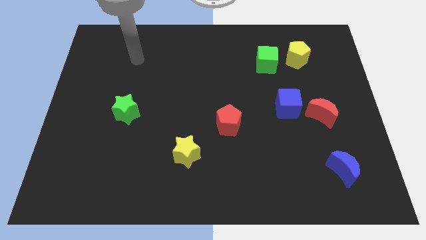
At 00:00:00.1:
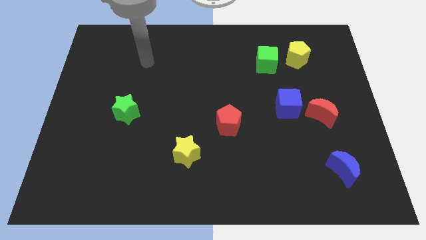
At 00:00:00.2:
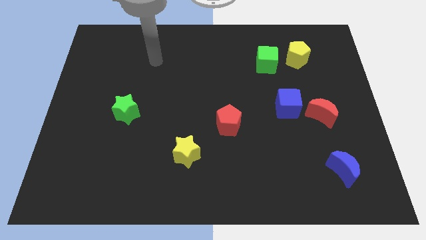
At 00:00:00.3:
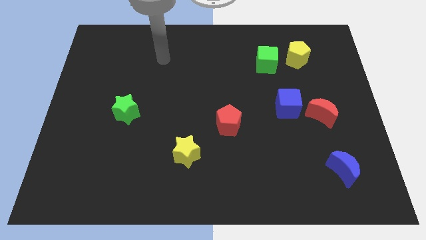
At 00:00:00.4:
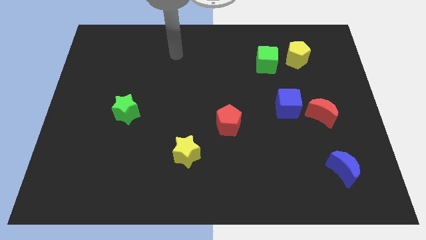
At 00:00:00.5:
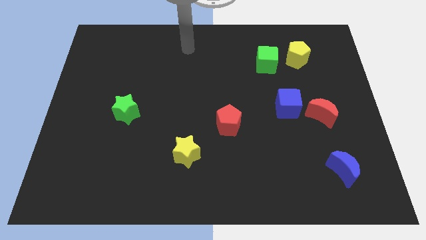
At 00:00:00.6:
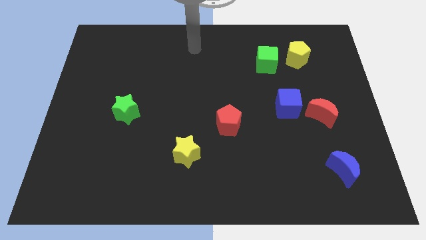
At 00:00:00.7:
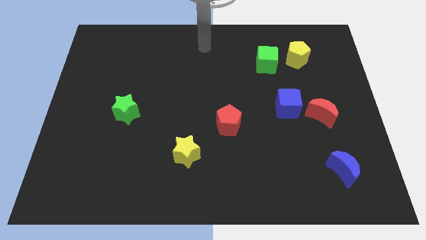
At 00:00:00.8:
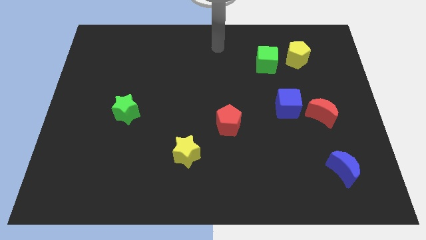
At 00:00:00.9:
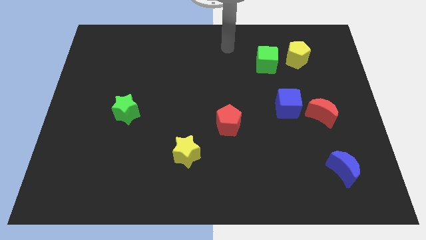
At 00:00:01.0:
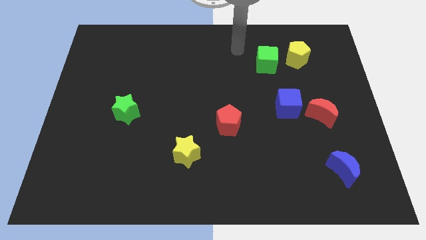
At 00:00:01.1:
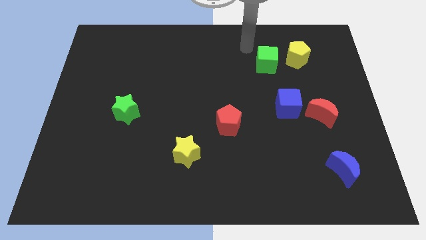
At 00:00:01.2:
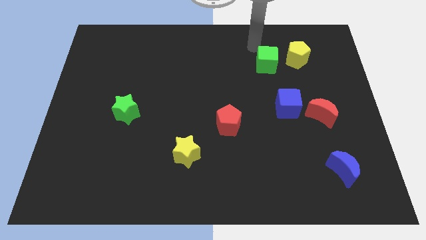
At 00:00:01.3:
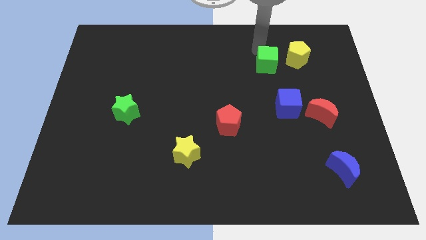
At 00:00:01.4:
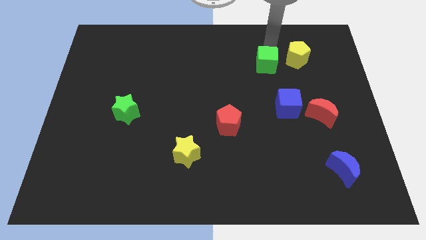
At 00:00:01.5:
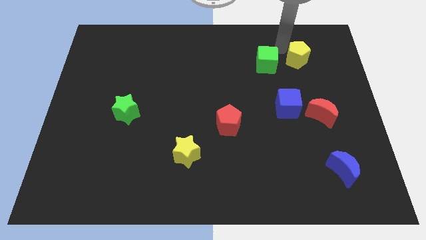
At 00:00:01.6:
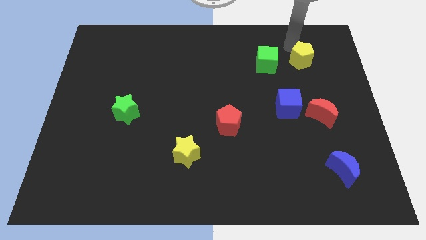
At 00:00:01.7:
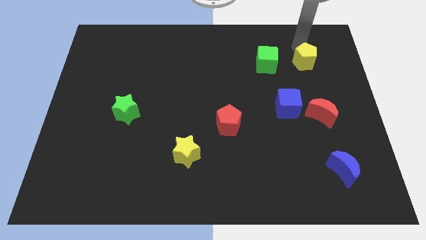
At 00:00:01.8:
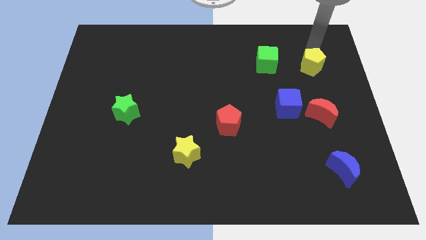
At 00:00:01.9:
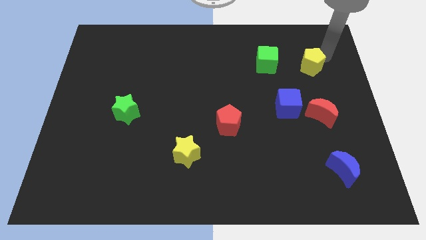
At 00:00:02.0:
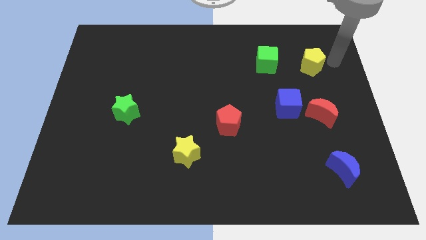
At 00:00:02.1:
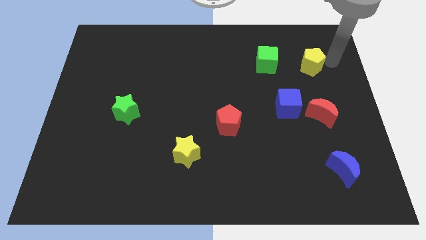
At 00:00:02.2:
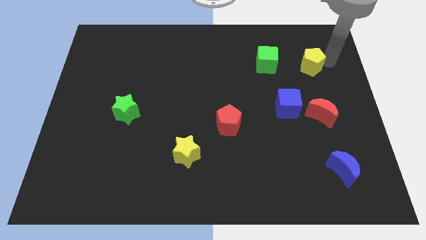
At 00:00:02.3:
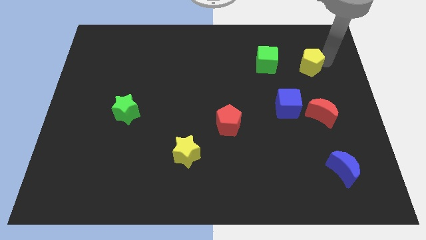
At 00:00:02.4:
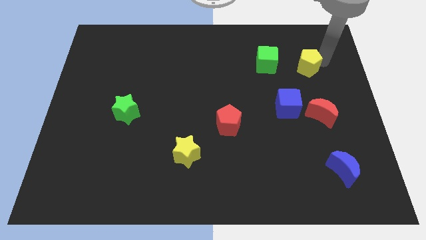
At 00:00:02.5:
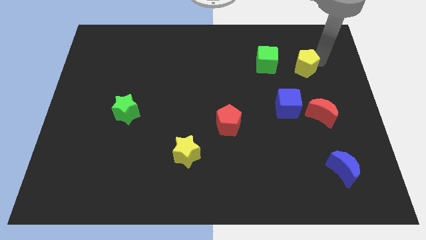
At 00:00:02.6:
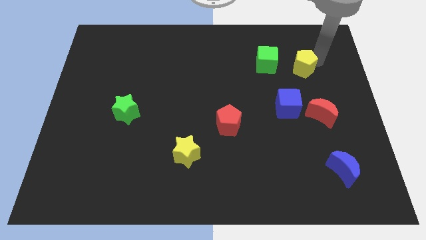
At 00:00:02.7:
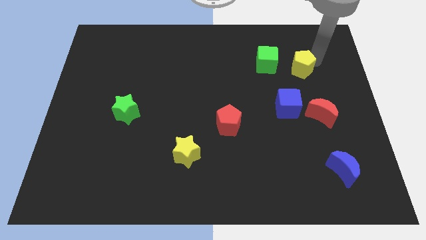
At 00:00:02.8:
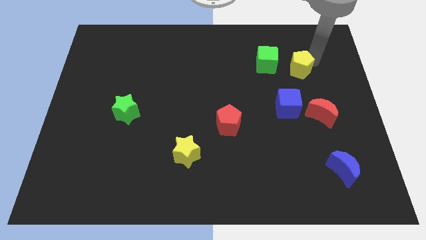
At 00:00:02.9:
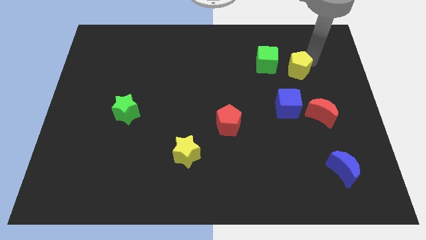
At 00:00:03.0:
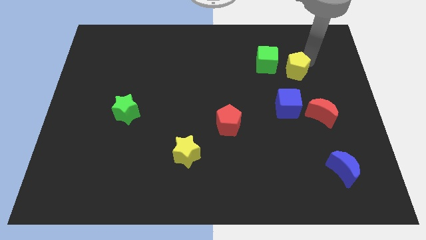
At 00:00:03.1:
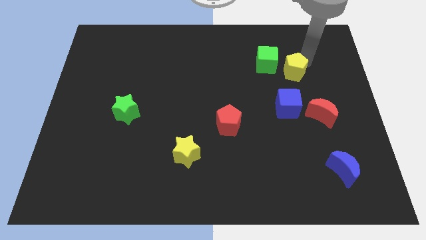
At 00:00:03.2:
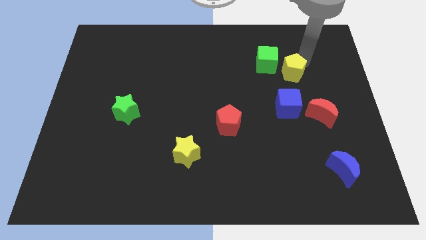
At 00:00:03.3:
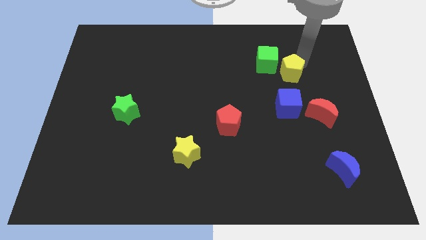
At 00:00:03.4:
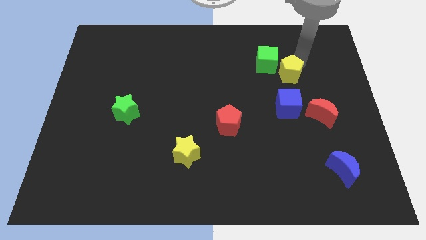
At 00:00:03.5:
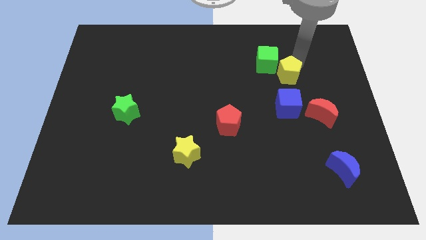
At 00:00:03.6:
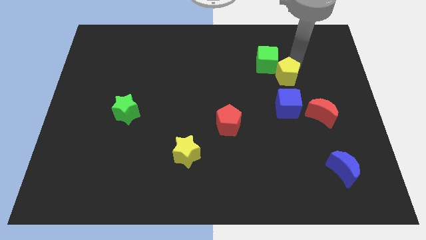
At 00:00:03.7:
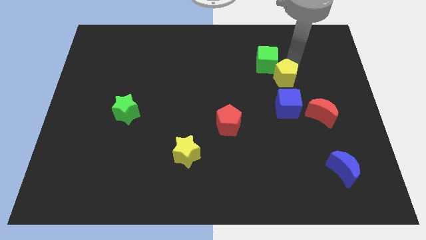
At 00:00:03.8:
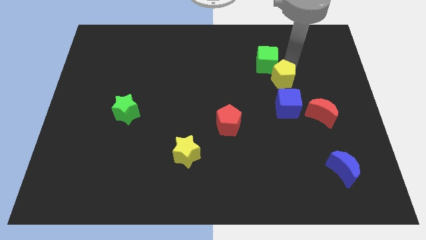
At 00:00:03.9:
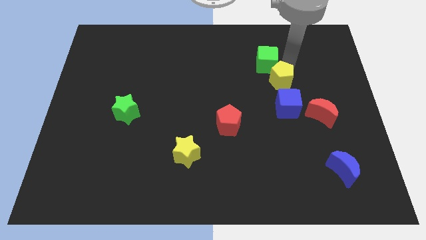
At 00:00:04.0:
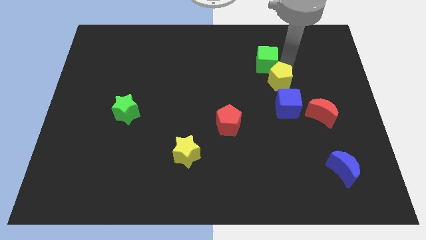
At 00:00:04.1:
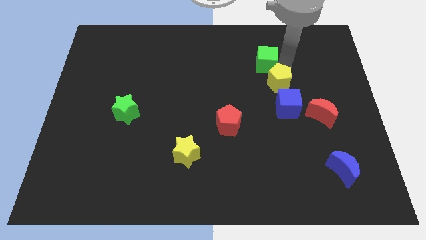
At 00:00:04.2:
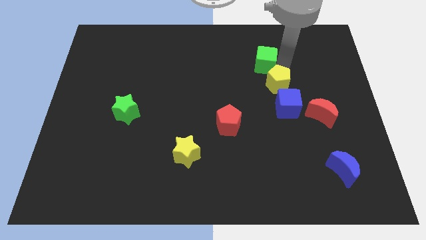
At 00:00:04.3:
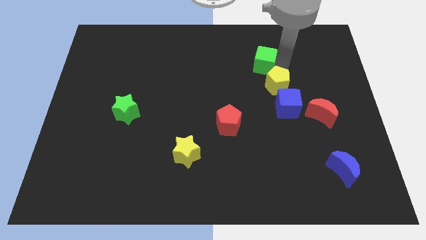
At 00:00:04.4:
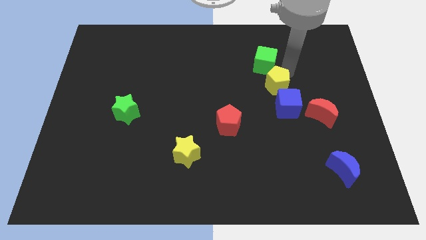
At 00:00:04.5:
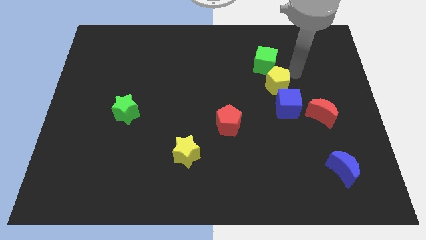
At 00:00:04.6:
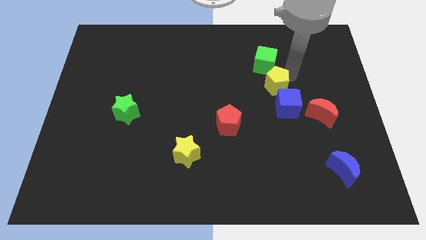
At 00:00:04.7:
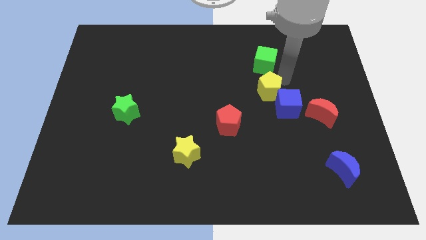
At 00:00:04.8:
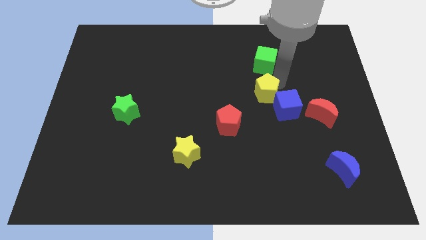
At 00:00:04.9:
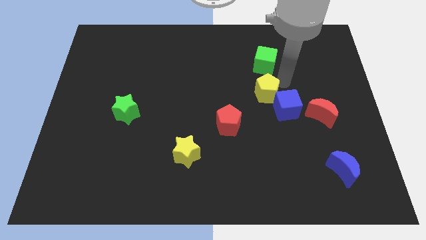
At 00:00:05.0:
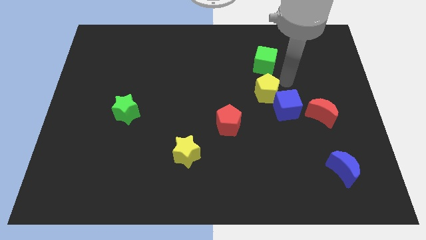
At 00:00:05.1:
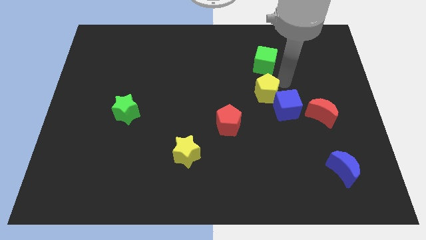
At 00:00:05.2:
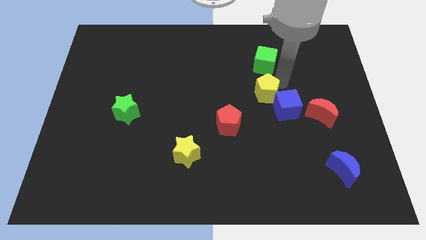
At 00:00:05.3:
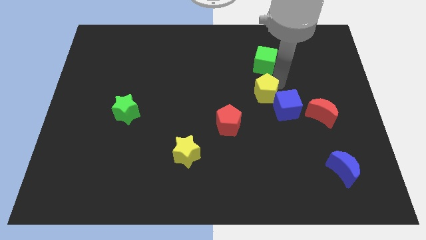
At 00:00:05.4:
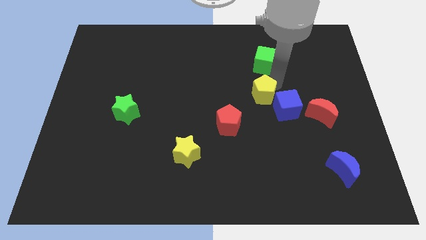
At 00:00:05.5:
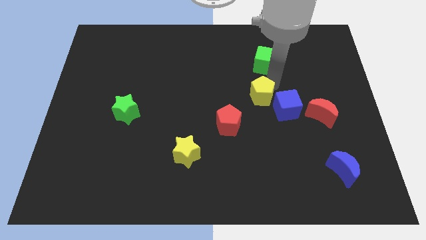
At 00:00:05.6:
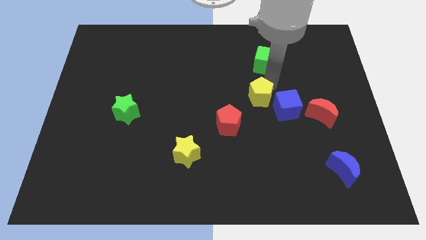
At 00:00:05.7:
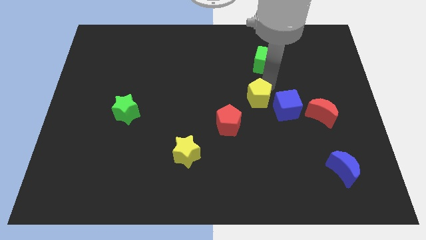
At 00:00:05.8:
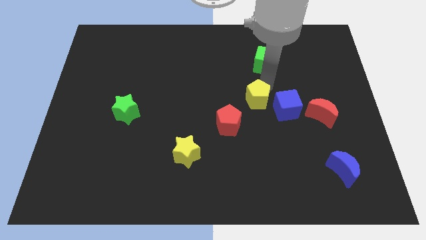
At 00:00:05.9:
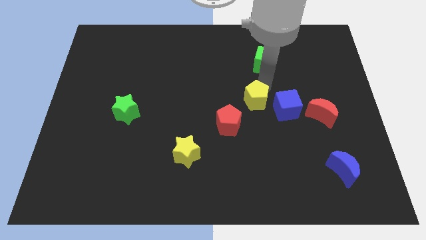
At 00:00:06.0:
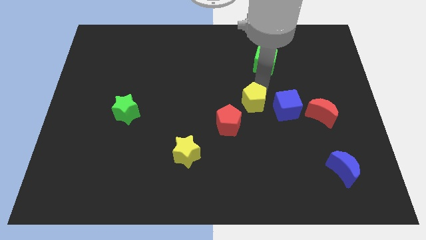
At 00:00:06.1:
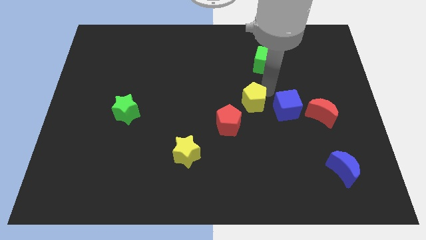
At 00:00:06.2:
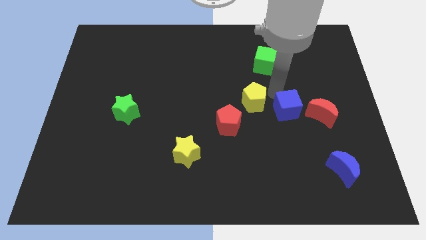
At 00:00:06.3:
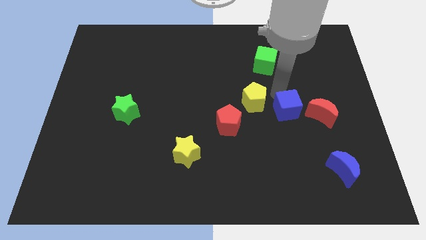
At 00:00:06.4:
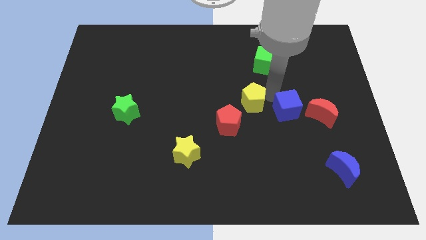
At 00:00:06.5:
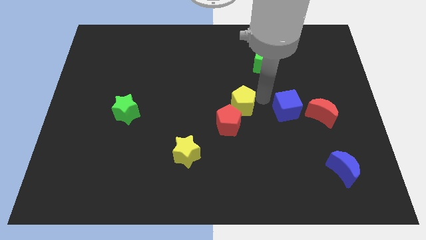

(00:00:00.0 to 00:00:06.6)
slide the yellow pentagon downwards and then to the left

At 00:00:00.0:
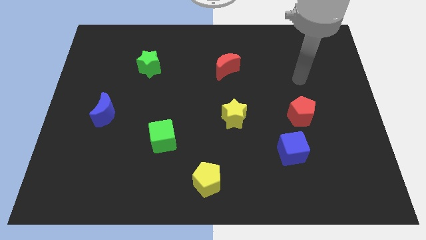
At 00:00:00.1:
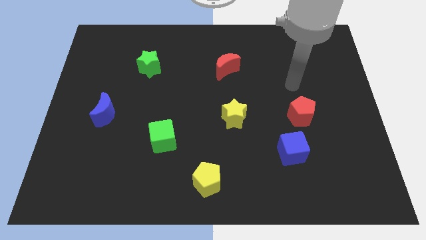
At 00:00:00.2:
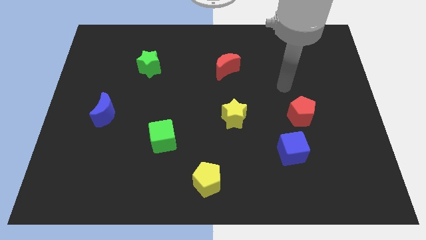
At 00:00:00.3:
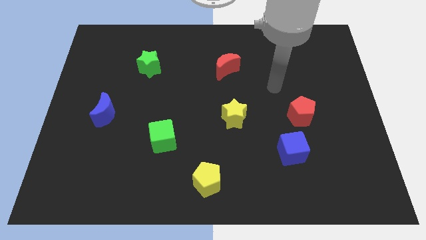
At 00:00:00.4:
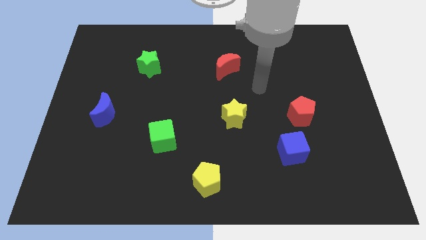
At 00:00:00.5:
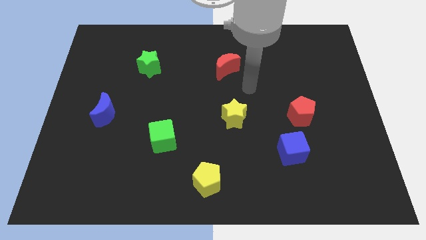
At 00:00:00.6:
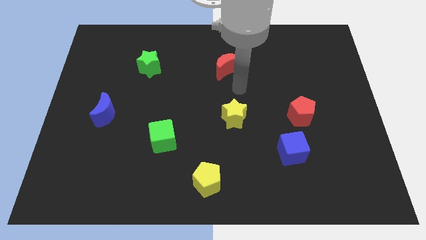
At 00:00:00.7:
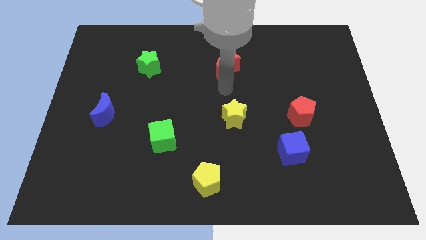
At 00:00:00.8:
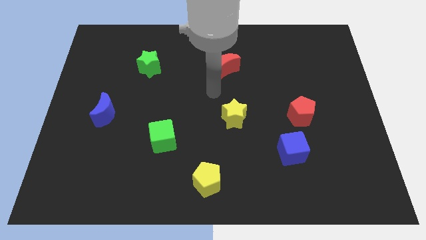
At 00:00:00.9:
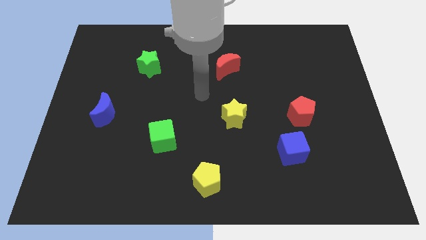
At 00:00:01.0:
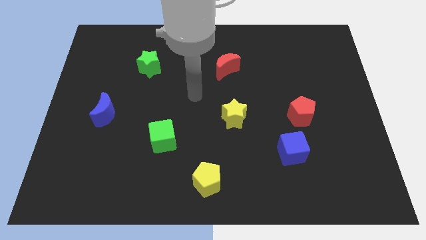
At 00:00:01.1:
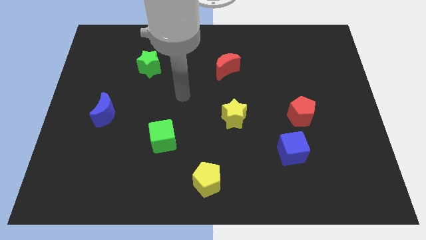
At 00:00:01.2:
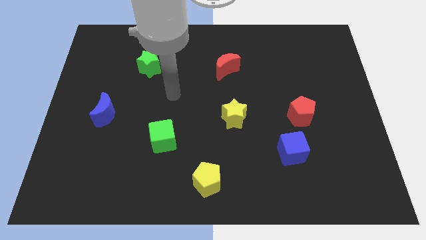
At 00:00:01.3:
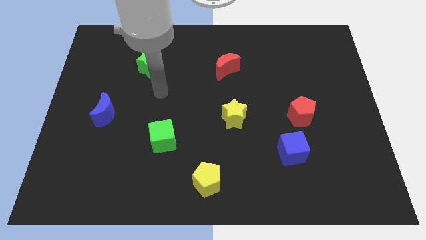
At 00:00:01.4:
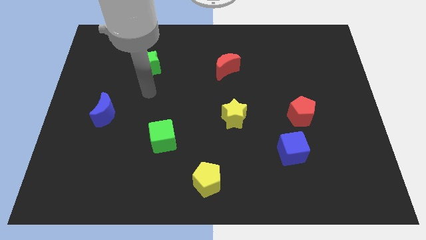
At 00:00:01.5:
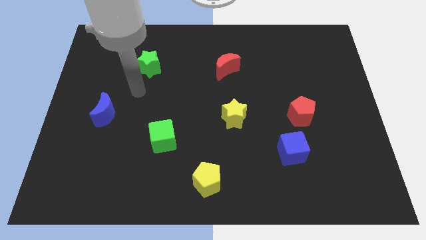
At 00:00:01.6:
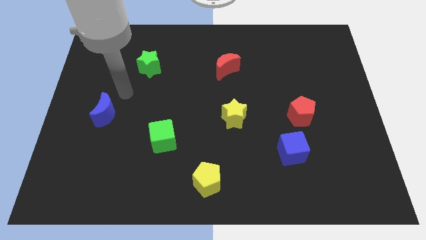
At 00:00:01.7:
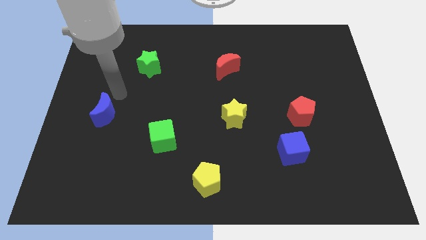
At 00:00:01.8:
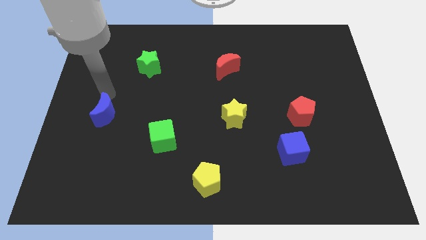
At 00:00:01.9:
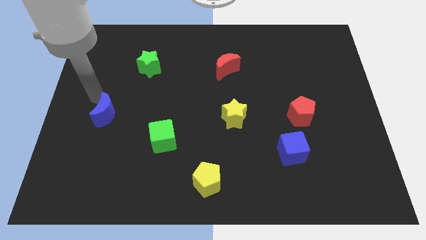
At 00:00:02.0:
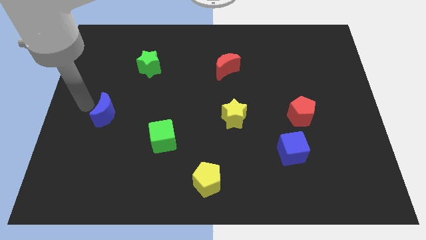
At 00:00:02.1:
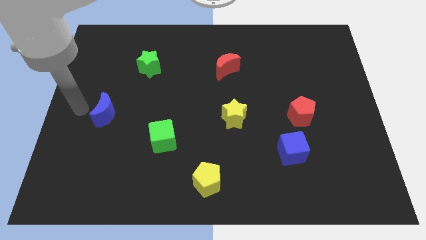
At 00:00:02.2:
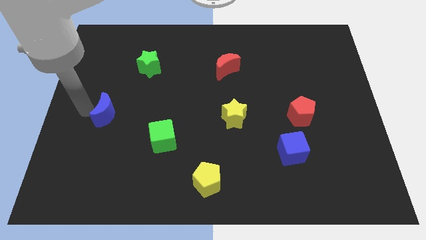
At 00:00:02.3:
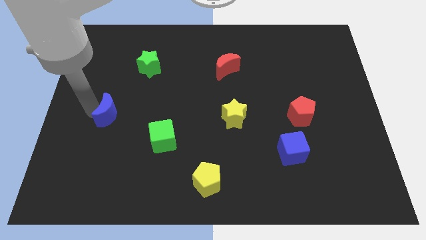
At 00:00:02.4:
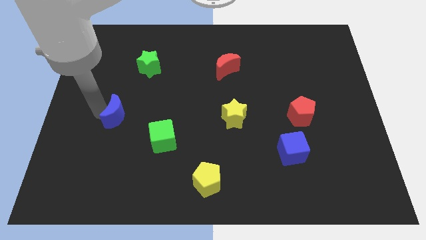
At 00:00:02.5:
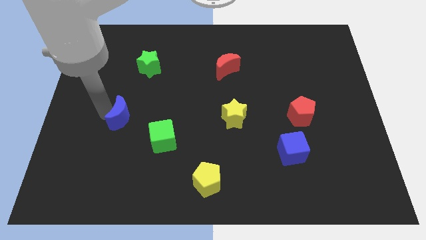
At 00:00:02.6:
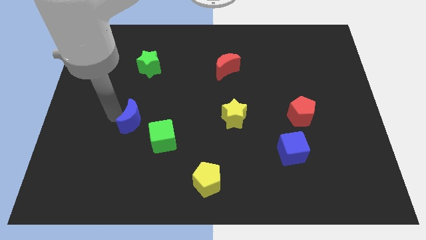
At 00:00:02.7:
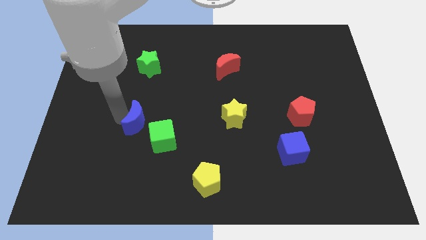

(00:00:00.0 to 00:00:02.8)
slightly move the blue moon right
